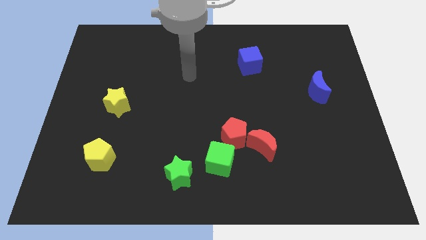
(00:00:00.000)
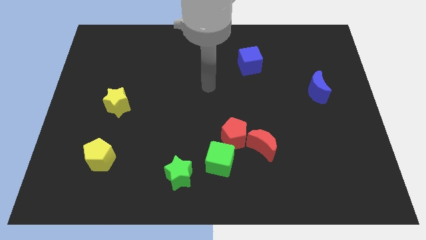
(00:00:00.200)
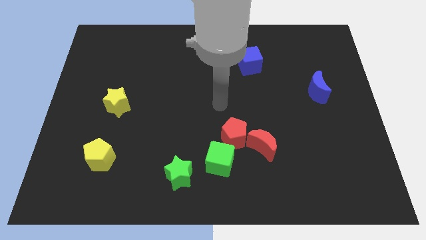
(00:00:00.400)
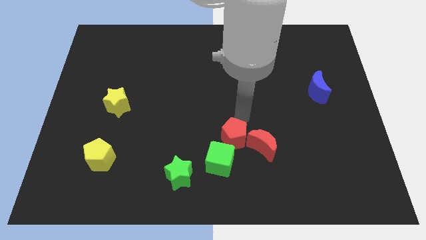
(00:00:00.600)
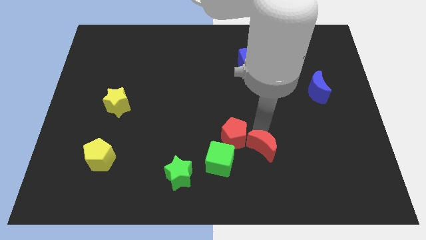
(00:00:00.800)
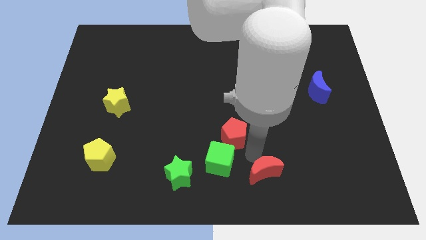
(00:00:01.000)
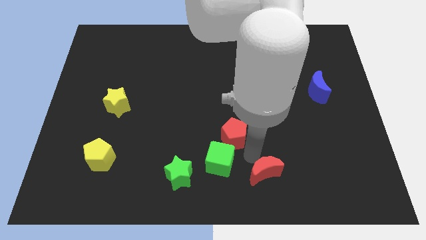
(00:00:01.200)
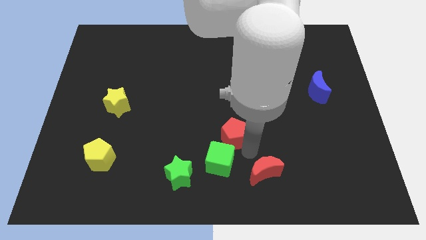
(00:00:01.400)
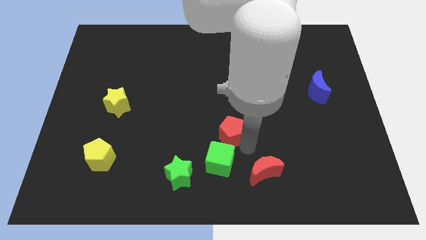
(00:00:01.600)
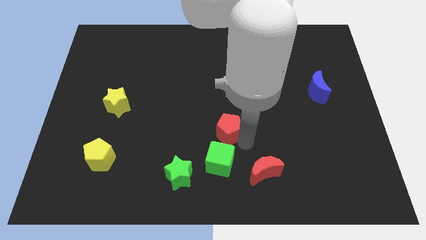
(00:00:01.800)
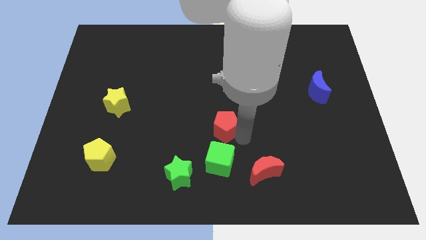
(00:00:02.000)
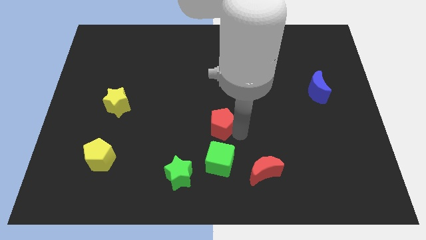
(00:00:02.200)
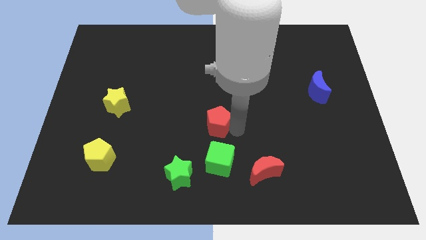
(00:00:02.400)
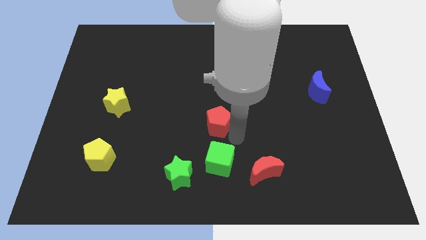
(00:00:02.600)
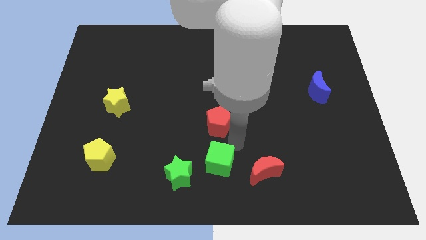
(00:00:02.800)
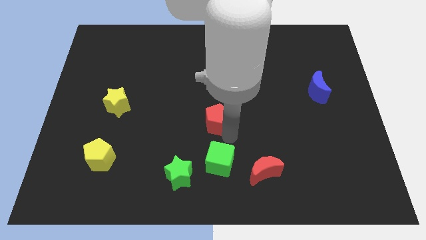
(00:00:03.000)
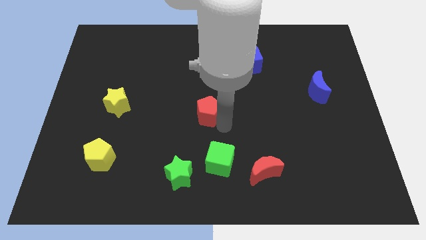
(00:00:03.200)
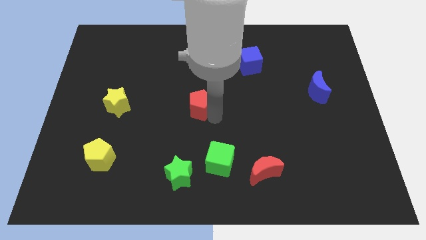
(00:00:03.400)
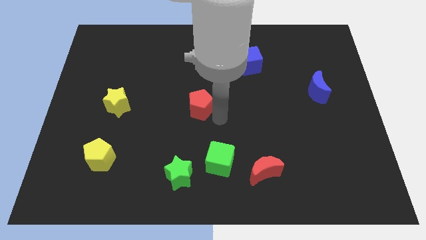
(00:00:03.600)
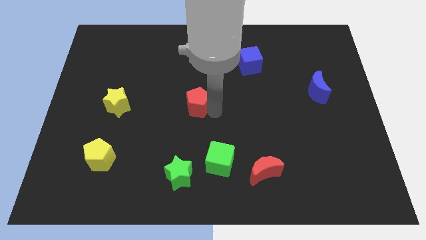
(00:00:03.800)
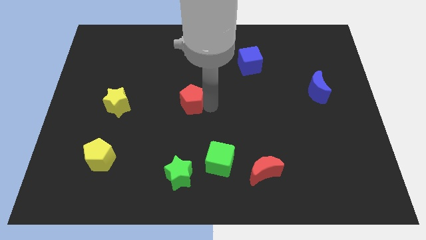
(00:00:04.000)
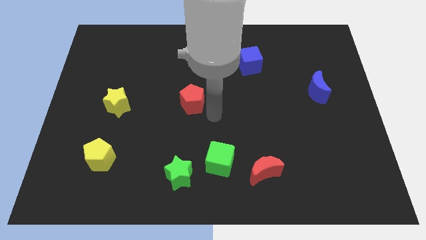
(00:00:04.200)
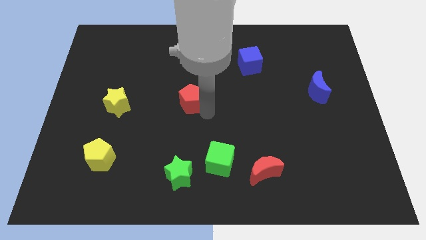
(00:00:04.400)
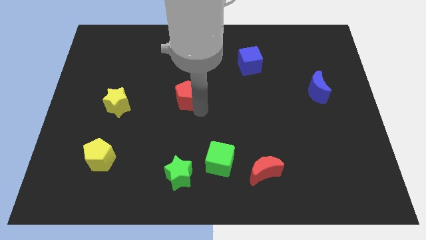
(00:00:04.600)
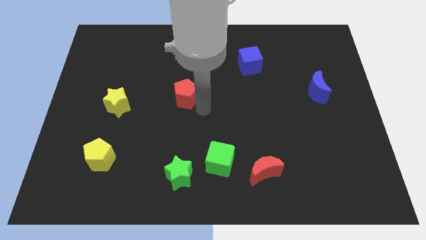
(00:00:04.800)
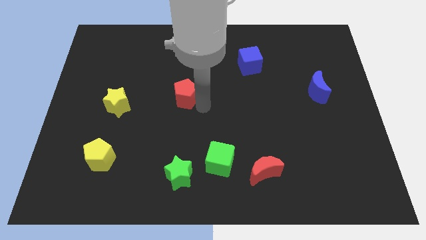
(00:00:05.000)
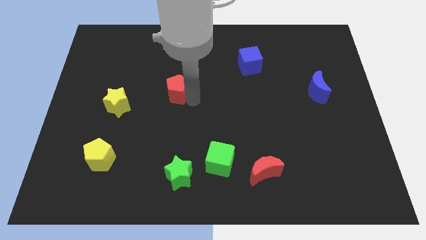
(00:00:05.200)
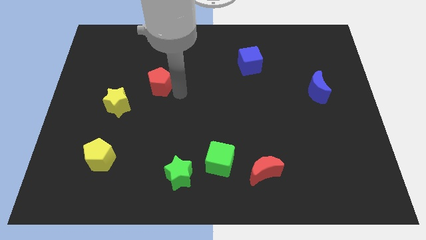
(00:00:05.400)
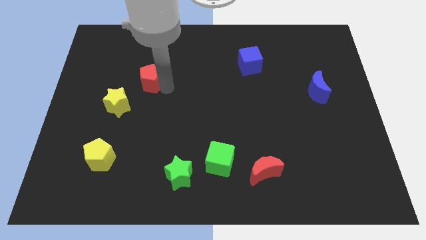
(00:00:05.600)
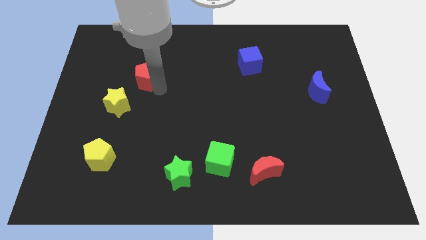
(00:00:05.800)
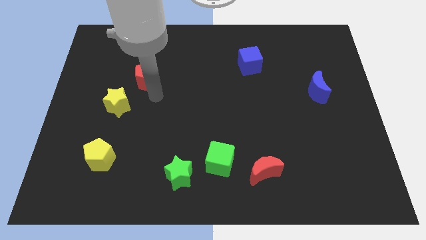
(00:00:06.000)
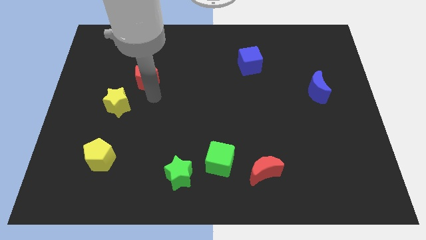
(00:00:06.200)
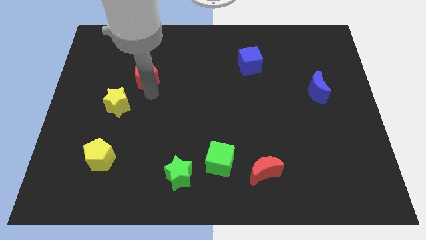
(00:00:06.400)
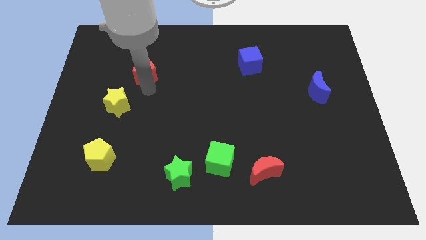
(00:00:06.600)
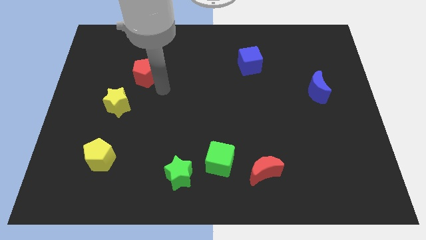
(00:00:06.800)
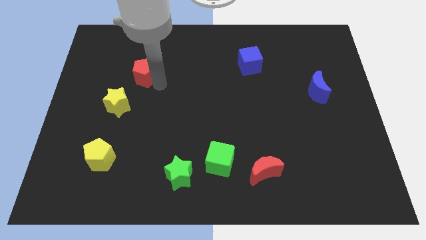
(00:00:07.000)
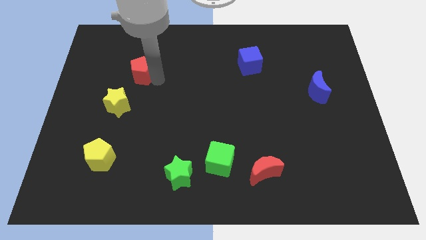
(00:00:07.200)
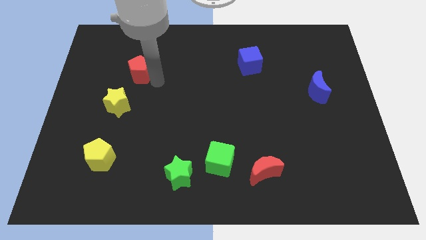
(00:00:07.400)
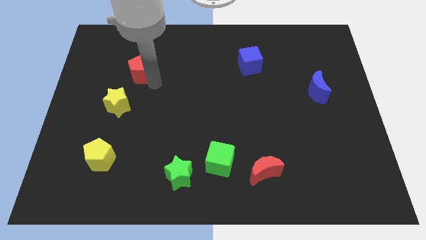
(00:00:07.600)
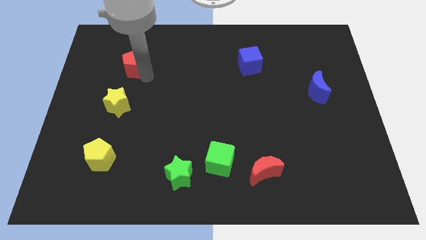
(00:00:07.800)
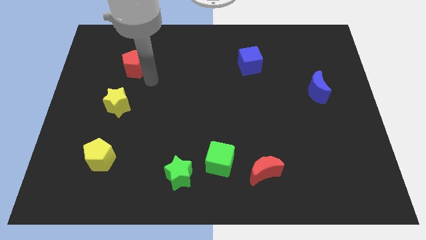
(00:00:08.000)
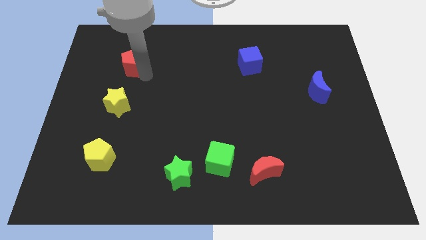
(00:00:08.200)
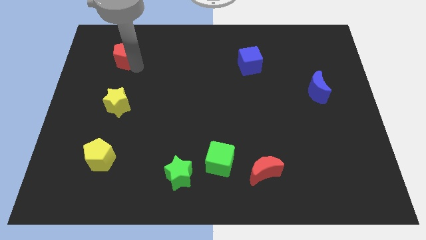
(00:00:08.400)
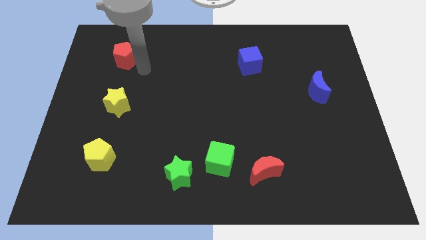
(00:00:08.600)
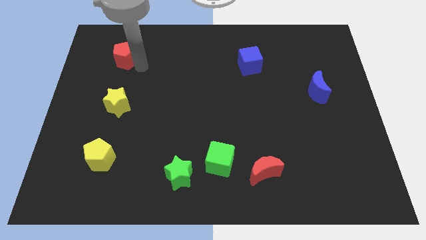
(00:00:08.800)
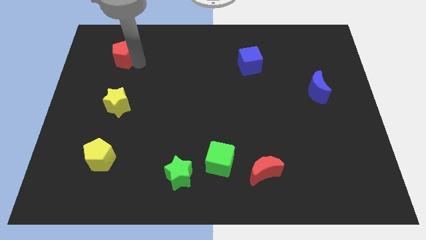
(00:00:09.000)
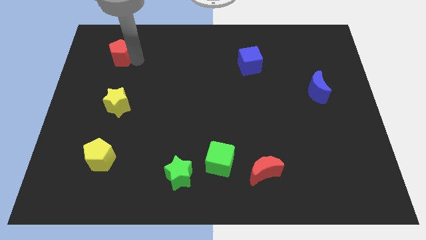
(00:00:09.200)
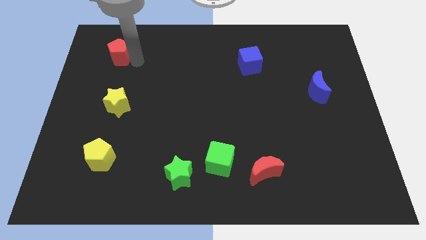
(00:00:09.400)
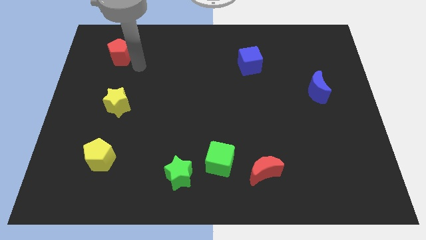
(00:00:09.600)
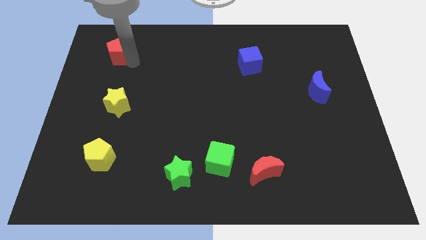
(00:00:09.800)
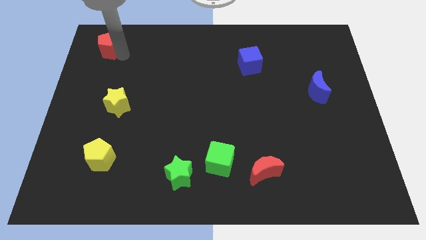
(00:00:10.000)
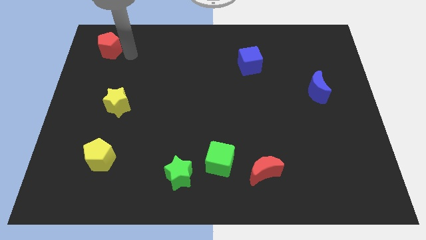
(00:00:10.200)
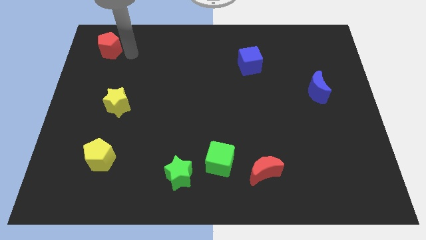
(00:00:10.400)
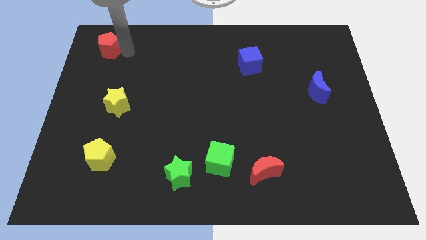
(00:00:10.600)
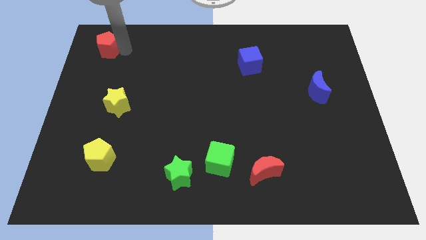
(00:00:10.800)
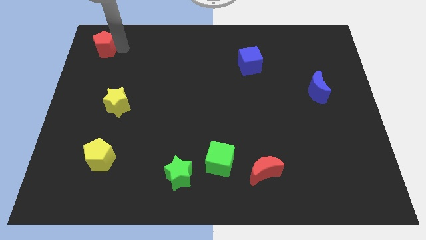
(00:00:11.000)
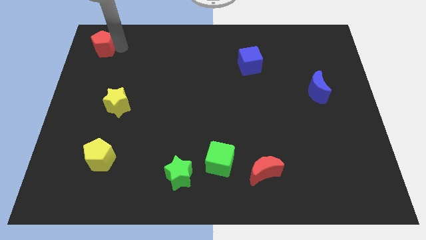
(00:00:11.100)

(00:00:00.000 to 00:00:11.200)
slide the red pentagon to the upper left corner

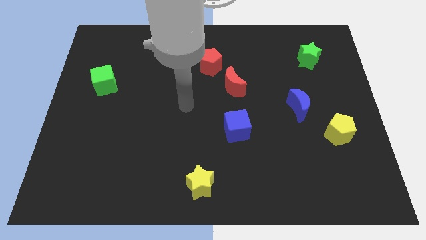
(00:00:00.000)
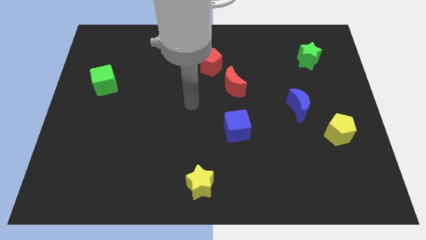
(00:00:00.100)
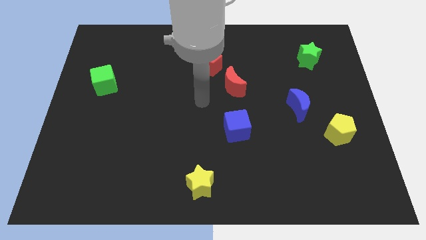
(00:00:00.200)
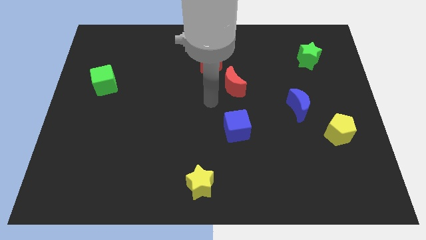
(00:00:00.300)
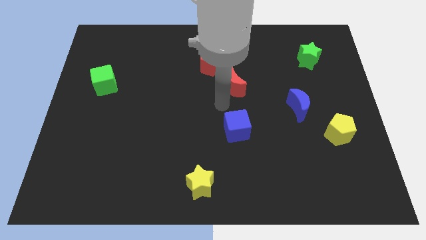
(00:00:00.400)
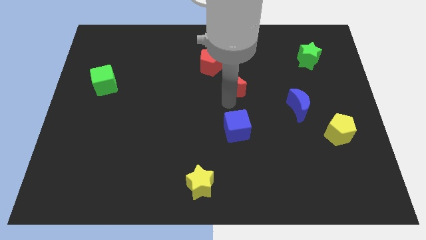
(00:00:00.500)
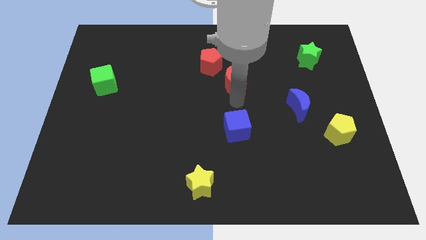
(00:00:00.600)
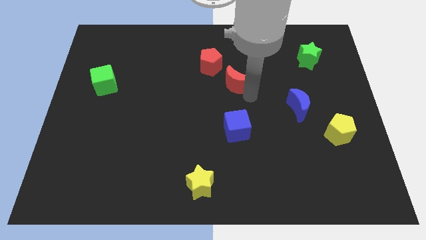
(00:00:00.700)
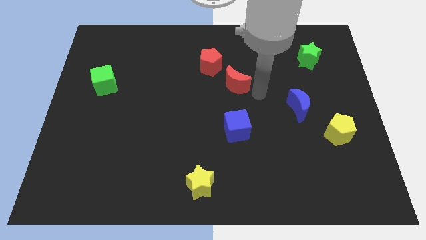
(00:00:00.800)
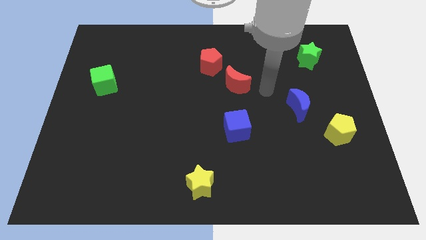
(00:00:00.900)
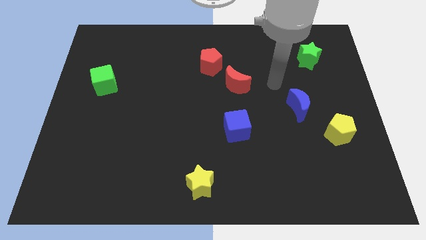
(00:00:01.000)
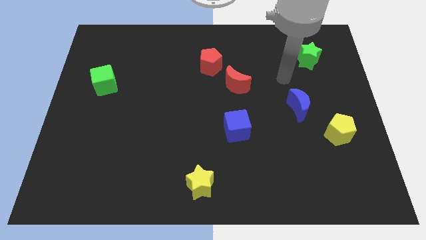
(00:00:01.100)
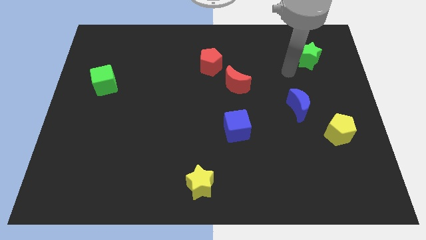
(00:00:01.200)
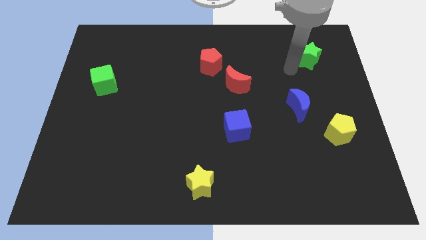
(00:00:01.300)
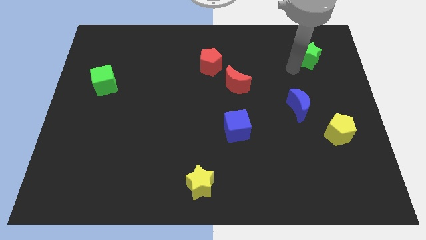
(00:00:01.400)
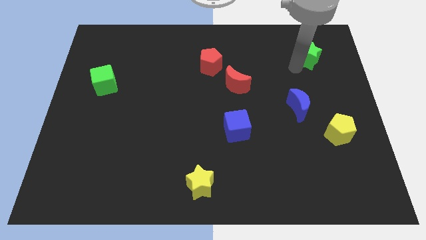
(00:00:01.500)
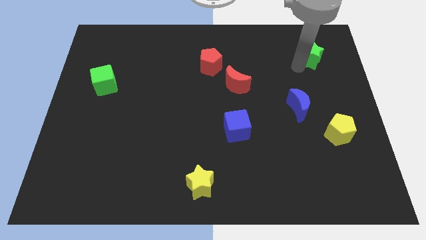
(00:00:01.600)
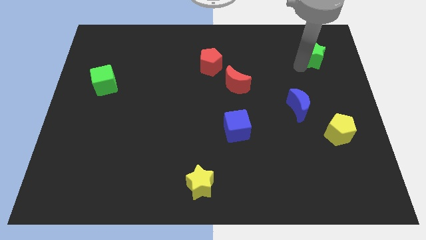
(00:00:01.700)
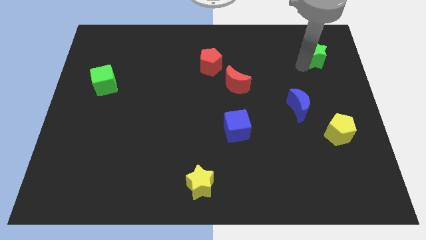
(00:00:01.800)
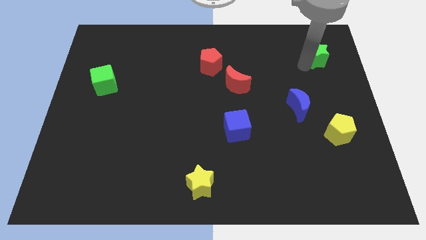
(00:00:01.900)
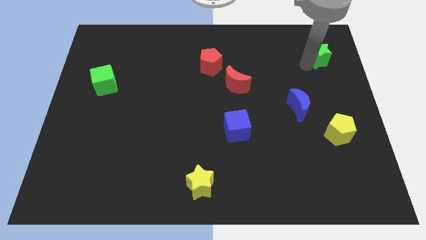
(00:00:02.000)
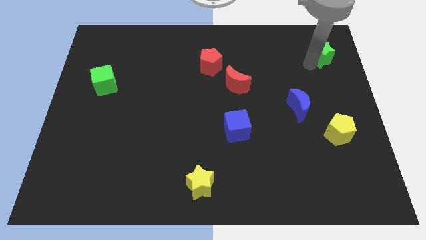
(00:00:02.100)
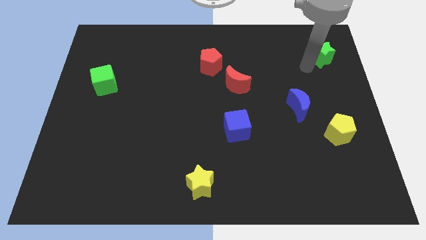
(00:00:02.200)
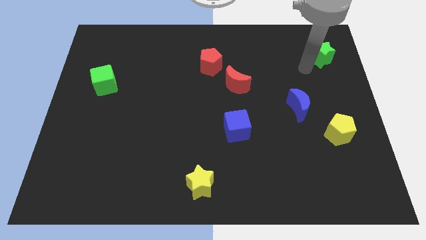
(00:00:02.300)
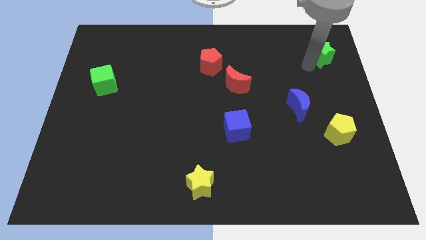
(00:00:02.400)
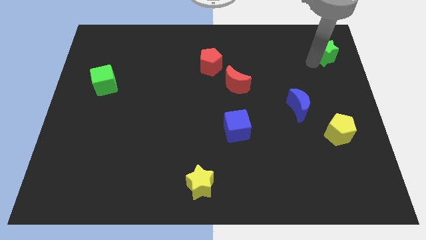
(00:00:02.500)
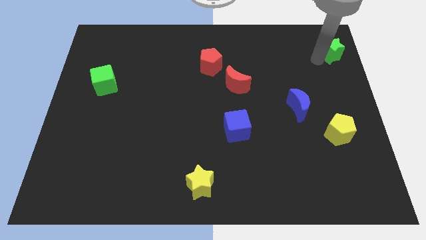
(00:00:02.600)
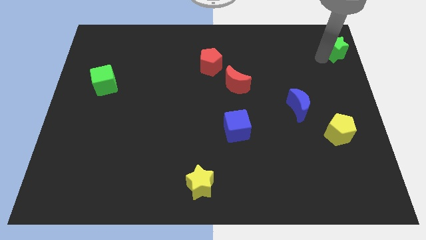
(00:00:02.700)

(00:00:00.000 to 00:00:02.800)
slide the green star to the top right of the board
